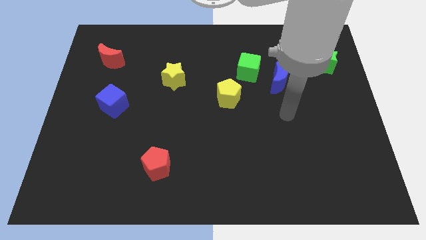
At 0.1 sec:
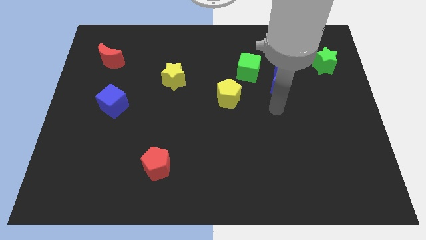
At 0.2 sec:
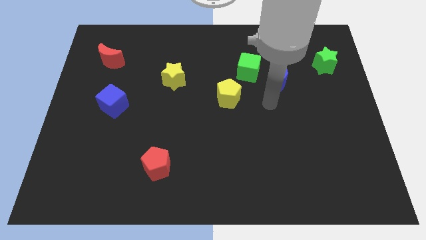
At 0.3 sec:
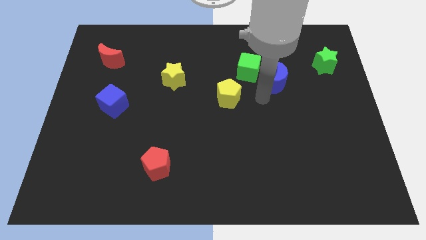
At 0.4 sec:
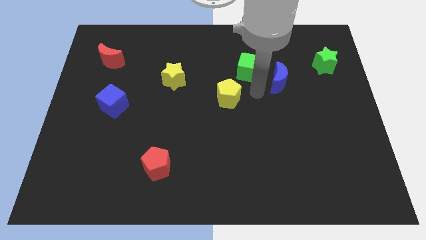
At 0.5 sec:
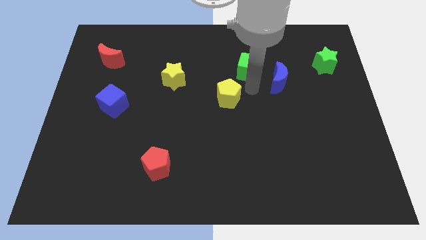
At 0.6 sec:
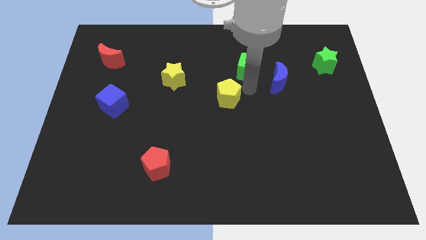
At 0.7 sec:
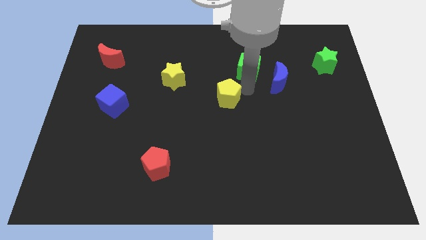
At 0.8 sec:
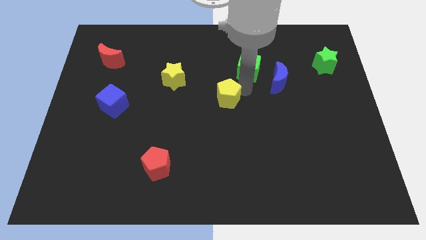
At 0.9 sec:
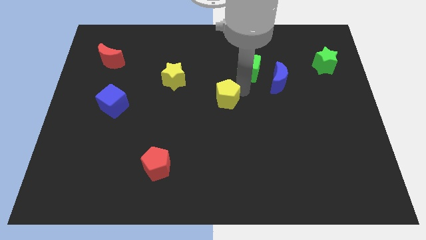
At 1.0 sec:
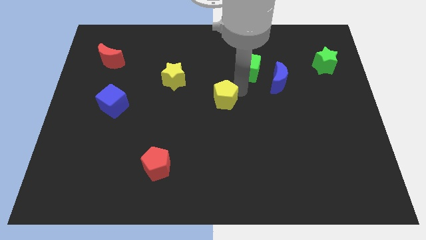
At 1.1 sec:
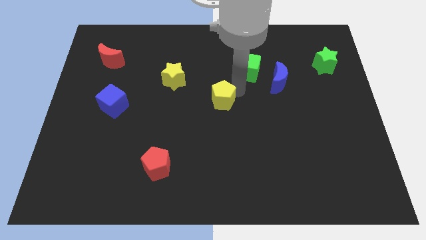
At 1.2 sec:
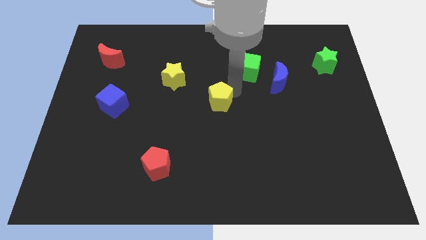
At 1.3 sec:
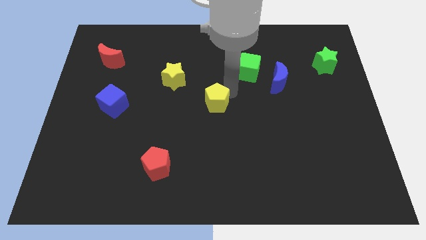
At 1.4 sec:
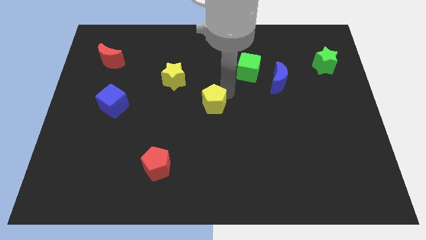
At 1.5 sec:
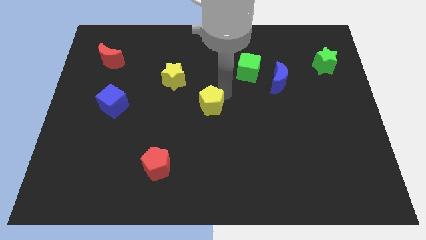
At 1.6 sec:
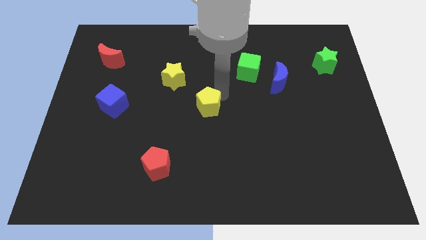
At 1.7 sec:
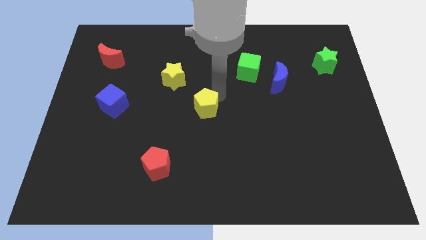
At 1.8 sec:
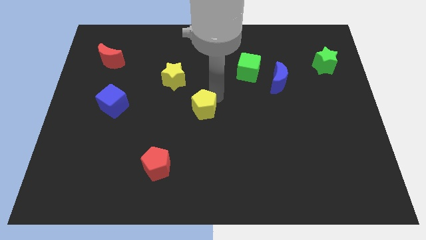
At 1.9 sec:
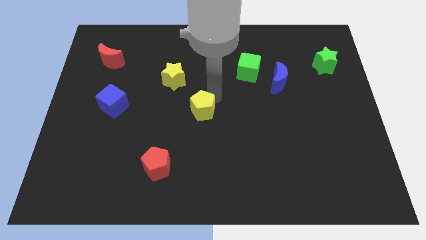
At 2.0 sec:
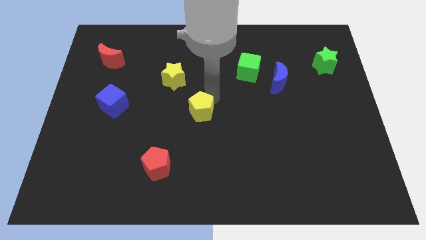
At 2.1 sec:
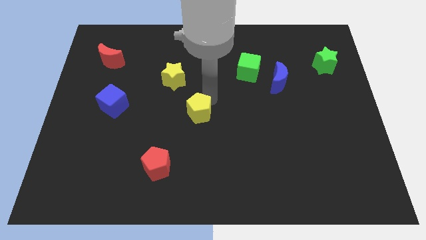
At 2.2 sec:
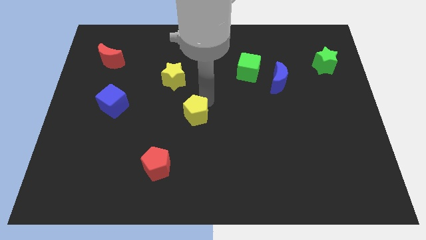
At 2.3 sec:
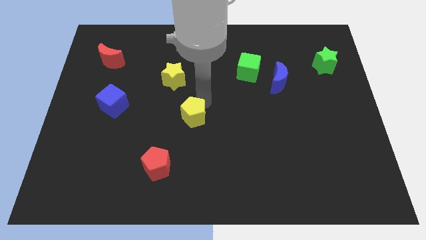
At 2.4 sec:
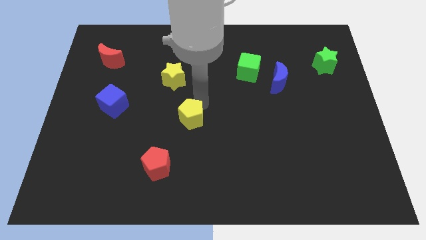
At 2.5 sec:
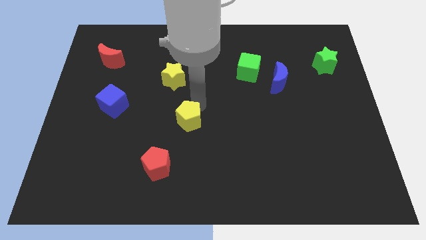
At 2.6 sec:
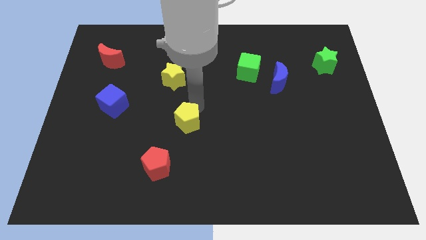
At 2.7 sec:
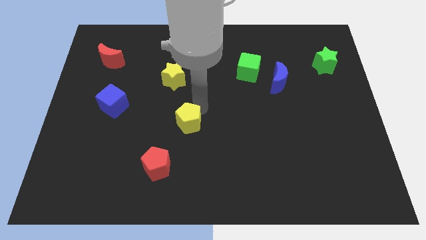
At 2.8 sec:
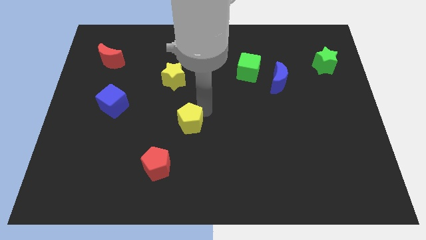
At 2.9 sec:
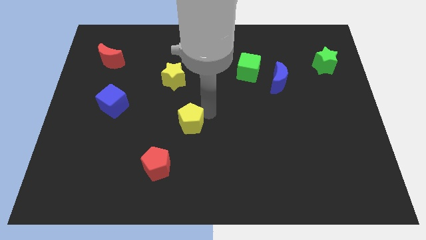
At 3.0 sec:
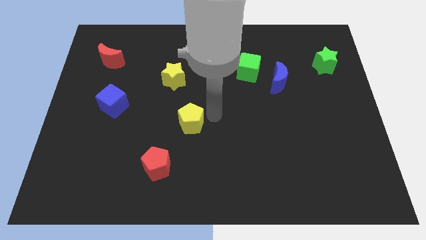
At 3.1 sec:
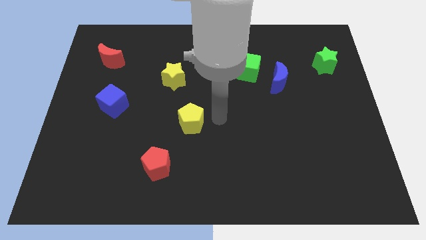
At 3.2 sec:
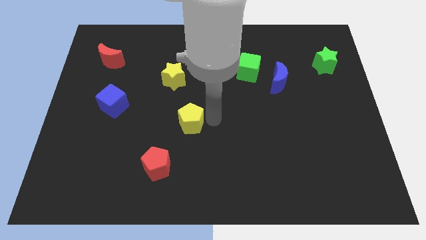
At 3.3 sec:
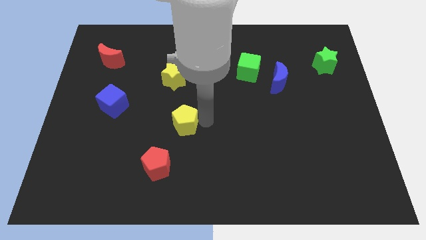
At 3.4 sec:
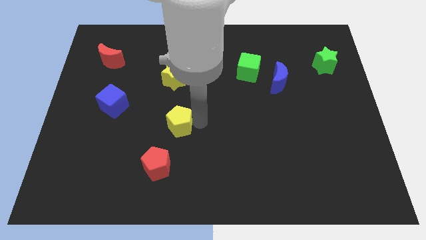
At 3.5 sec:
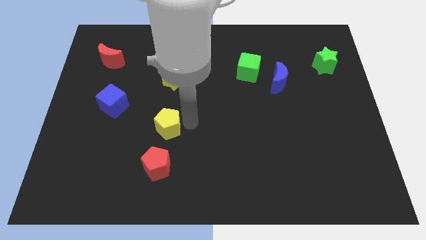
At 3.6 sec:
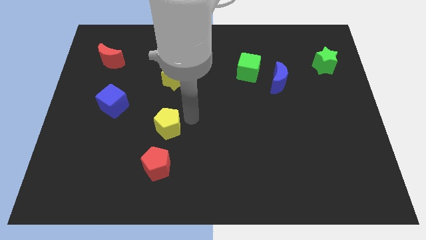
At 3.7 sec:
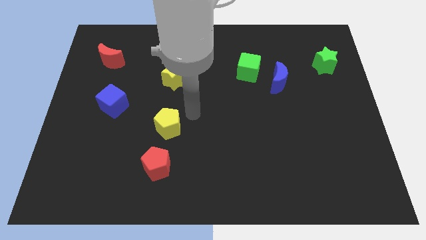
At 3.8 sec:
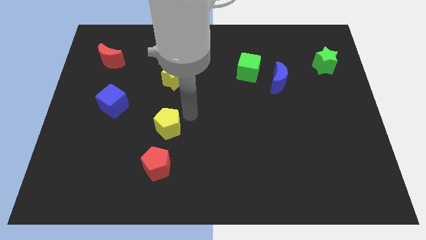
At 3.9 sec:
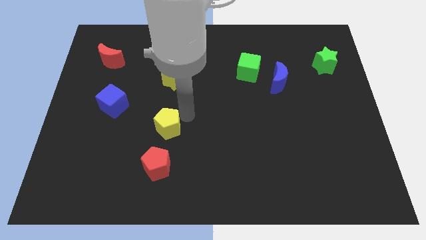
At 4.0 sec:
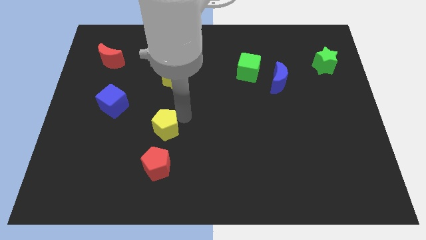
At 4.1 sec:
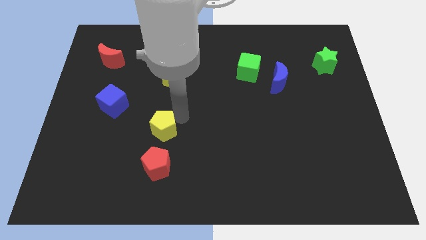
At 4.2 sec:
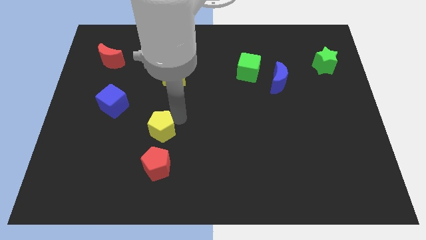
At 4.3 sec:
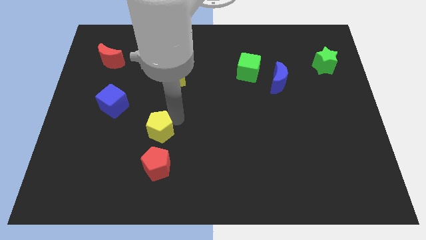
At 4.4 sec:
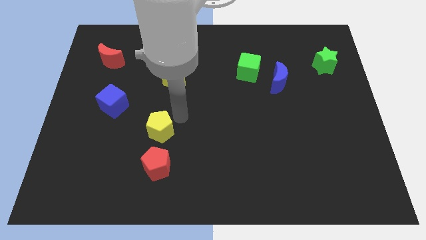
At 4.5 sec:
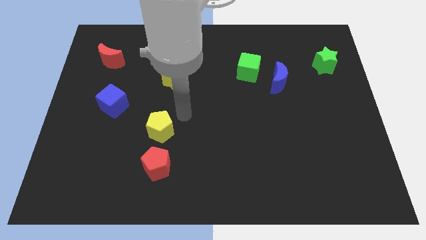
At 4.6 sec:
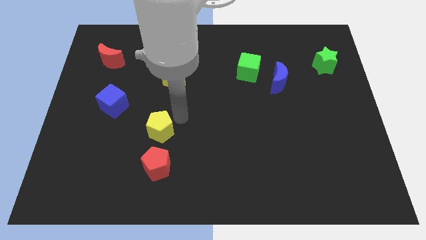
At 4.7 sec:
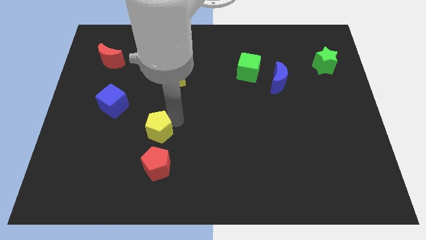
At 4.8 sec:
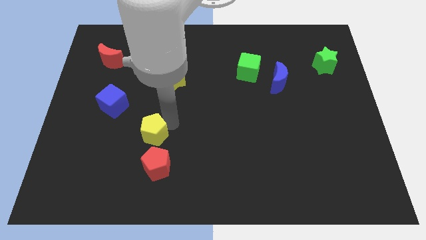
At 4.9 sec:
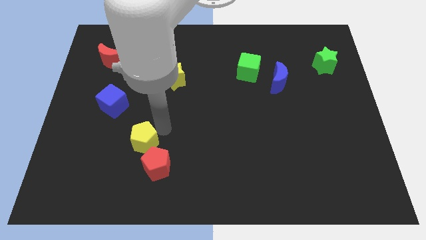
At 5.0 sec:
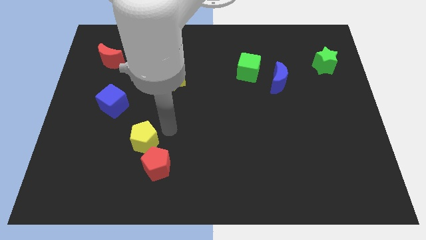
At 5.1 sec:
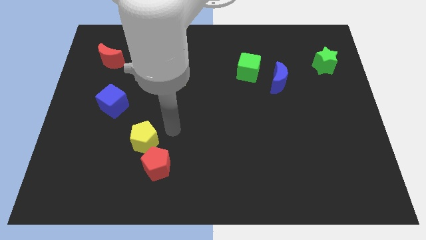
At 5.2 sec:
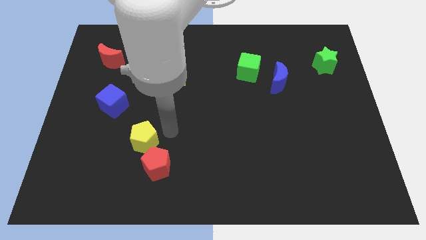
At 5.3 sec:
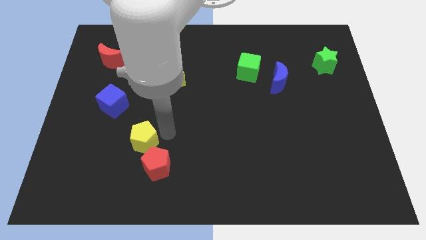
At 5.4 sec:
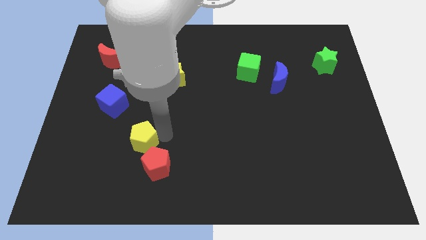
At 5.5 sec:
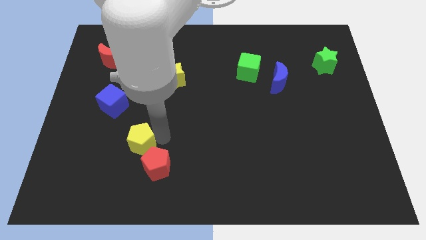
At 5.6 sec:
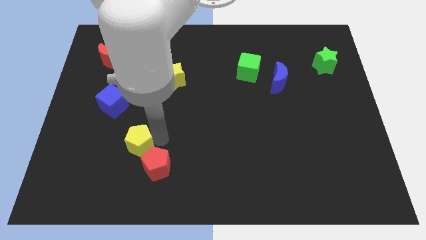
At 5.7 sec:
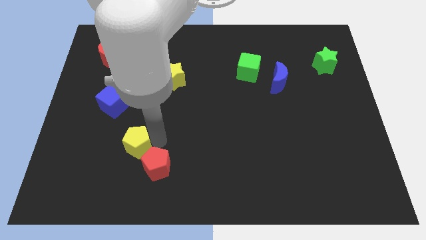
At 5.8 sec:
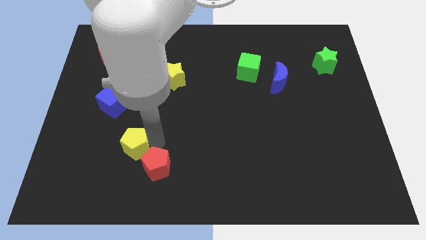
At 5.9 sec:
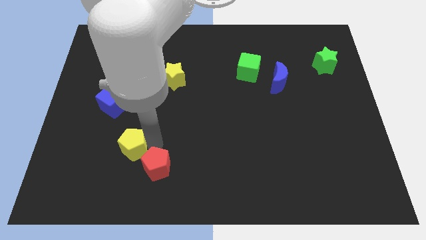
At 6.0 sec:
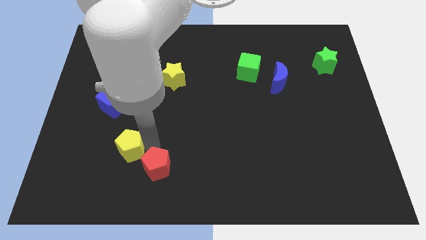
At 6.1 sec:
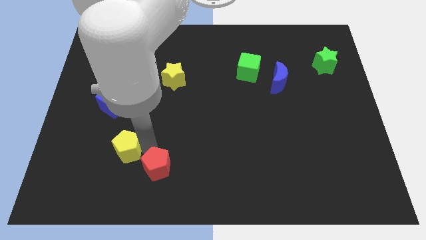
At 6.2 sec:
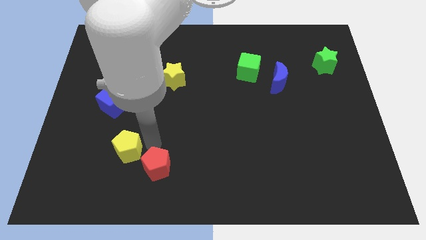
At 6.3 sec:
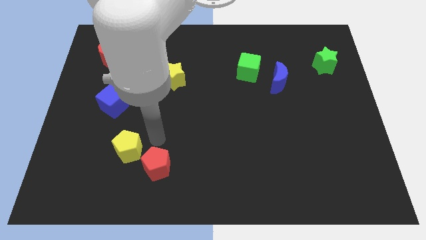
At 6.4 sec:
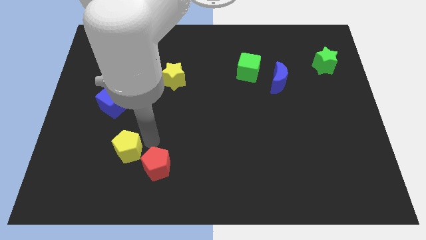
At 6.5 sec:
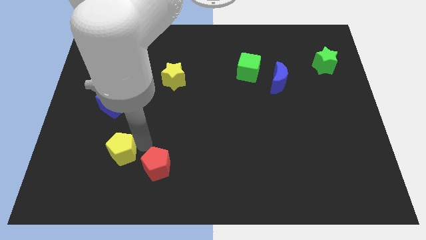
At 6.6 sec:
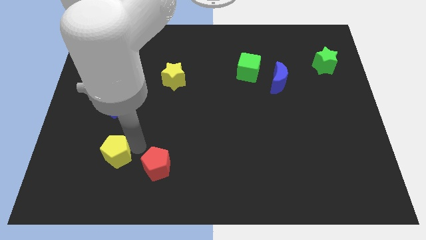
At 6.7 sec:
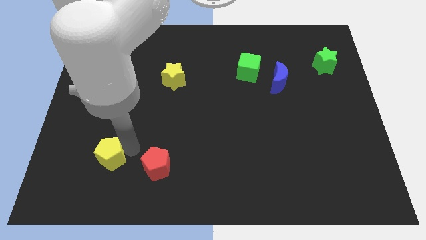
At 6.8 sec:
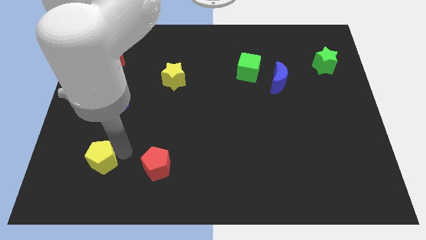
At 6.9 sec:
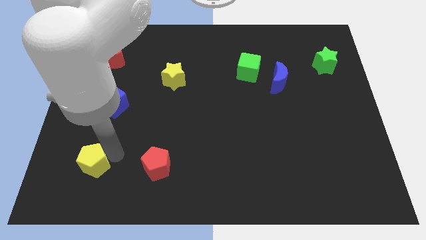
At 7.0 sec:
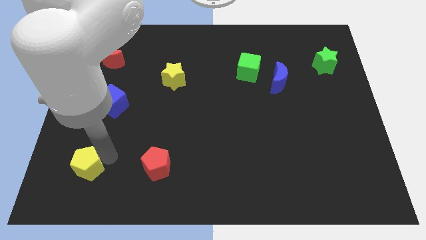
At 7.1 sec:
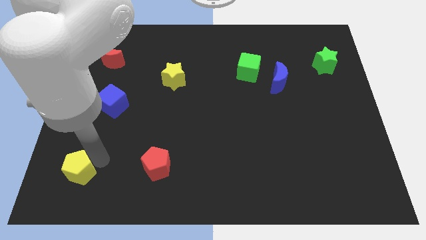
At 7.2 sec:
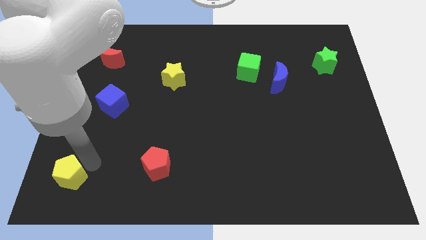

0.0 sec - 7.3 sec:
slide the yellow pentagon to the bottom left
